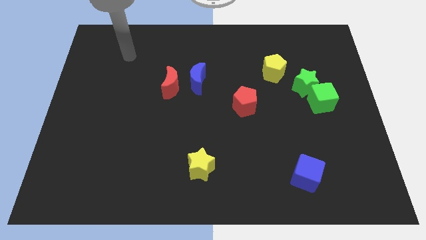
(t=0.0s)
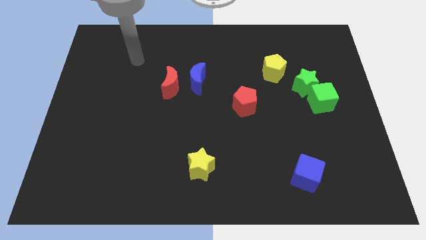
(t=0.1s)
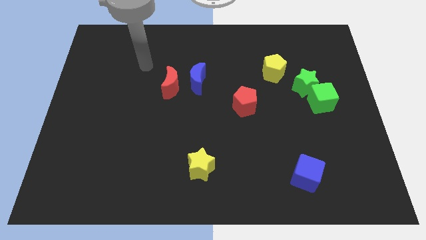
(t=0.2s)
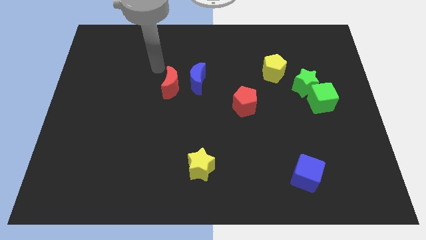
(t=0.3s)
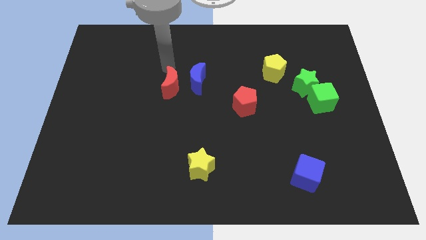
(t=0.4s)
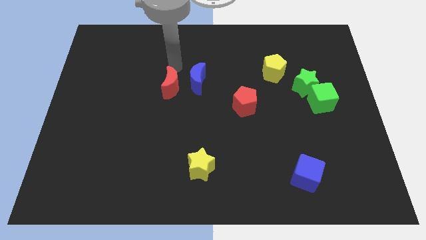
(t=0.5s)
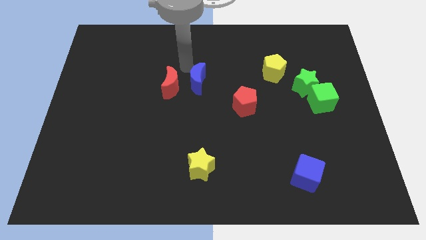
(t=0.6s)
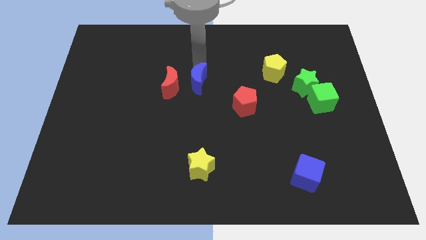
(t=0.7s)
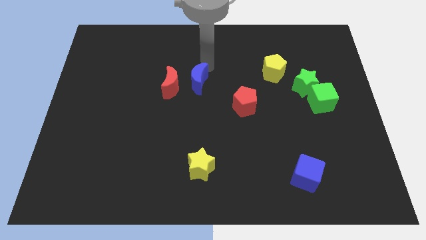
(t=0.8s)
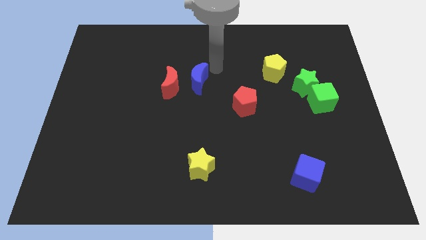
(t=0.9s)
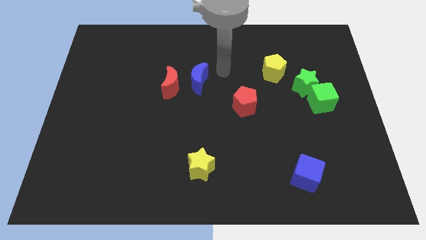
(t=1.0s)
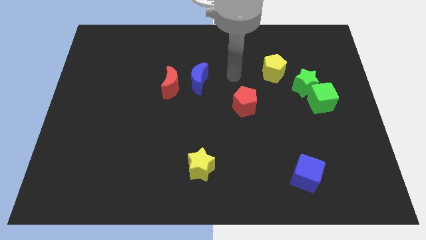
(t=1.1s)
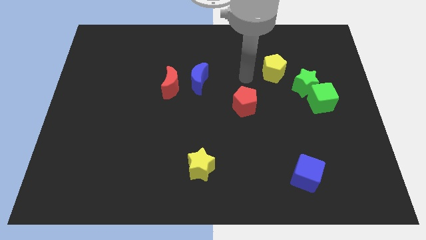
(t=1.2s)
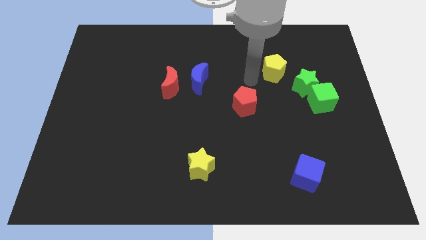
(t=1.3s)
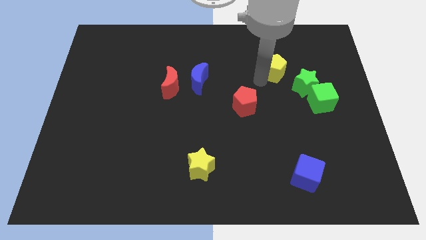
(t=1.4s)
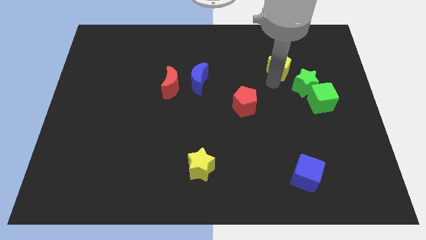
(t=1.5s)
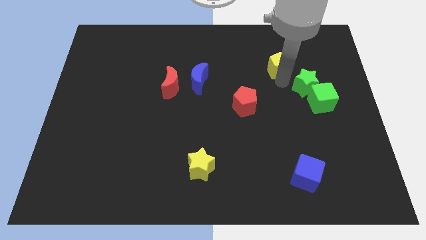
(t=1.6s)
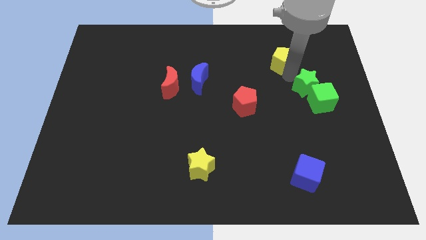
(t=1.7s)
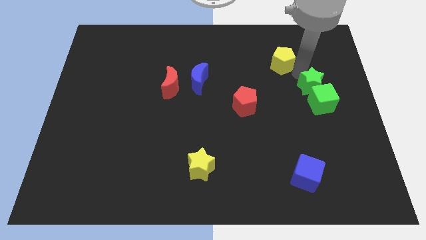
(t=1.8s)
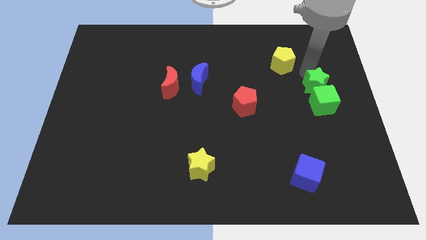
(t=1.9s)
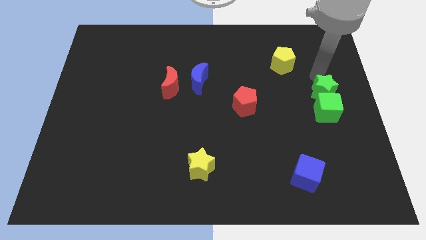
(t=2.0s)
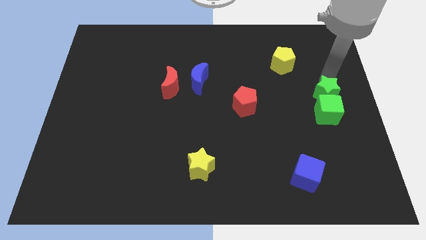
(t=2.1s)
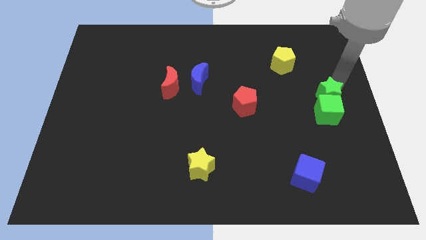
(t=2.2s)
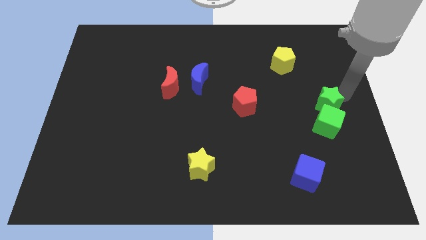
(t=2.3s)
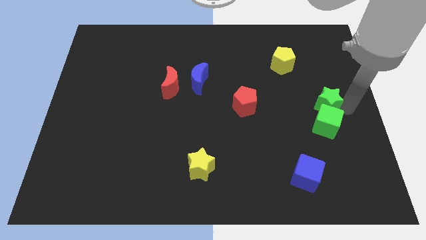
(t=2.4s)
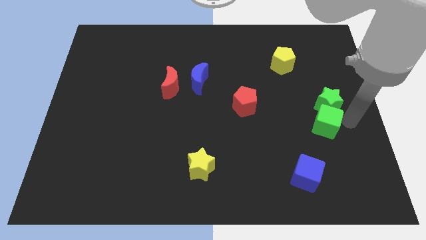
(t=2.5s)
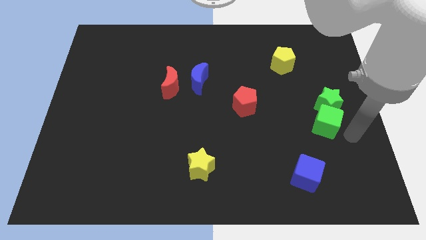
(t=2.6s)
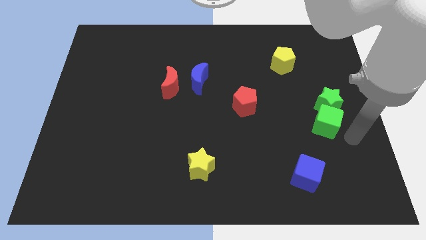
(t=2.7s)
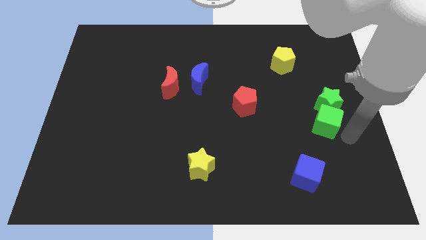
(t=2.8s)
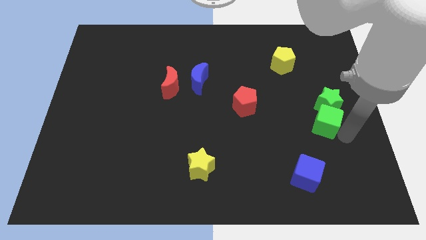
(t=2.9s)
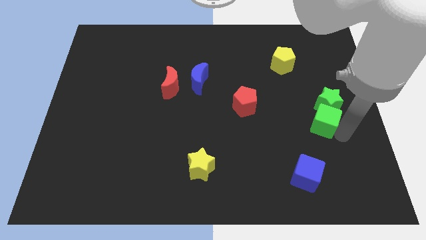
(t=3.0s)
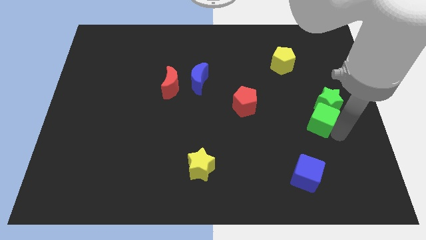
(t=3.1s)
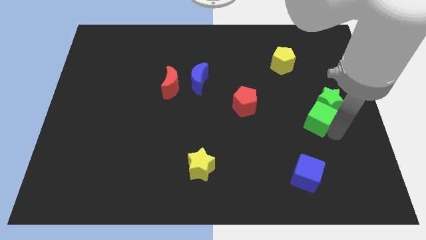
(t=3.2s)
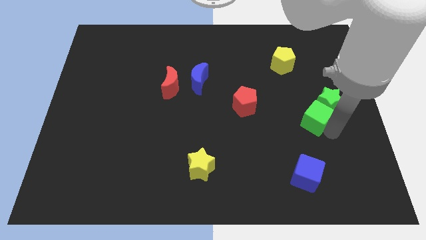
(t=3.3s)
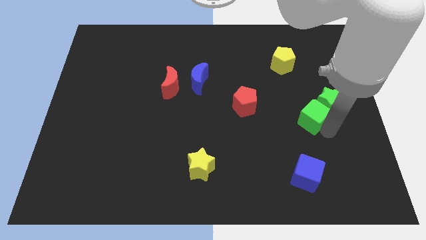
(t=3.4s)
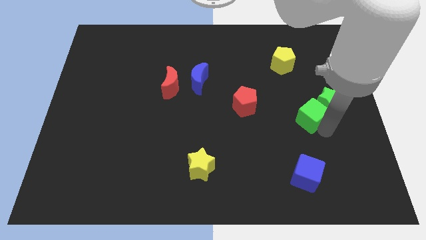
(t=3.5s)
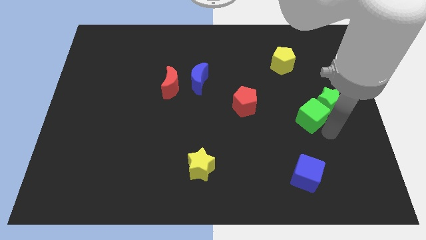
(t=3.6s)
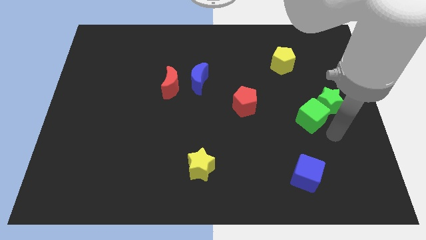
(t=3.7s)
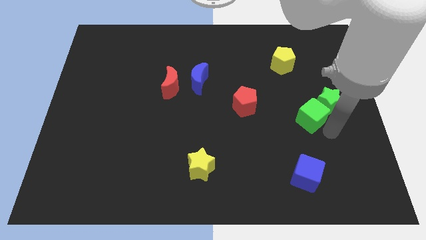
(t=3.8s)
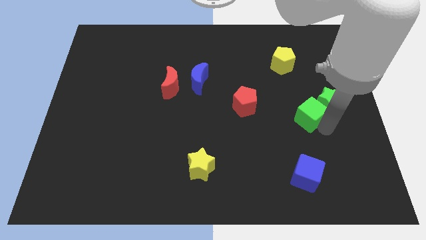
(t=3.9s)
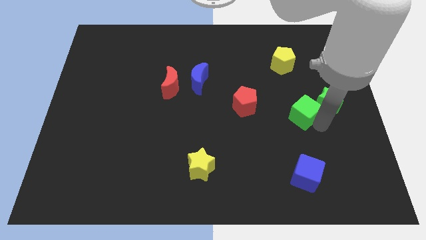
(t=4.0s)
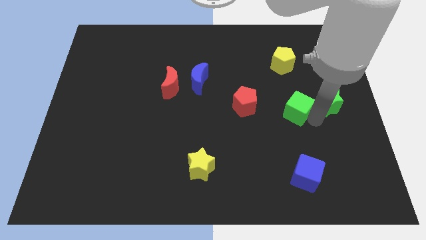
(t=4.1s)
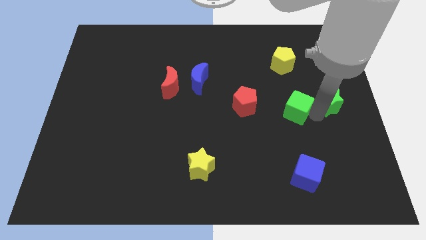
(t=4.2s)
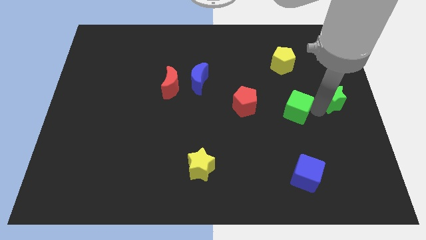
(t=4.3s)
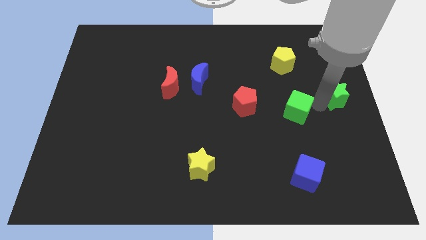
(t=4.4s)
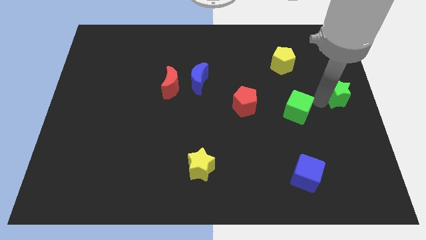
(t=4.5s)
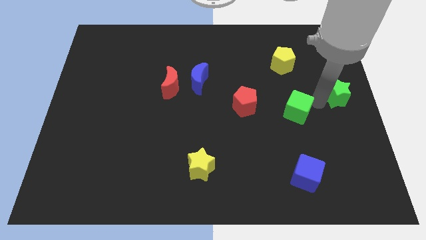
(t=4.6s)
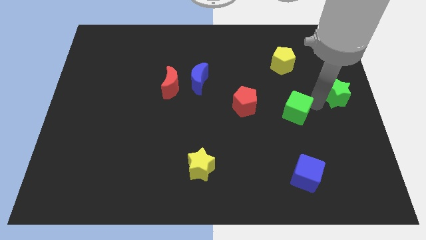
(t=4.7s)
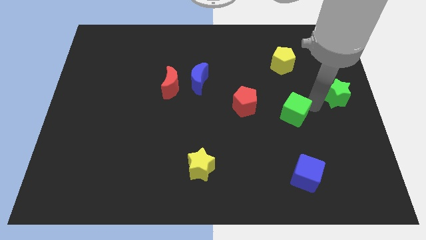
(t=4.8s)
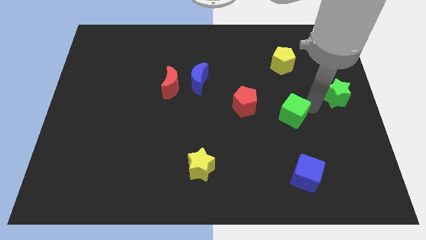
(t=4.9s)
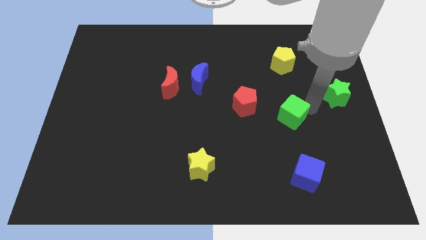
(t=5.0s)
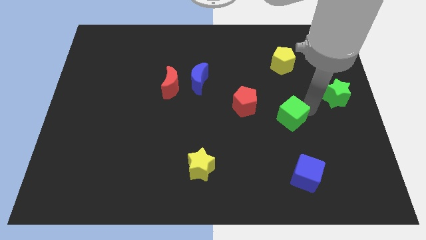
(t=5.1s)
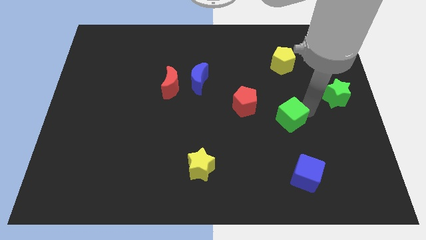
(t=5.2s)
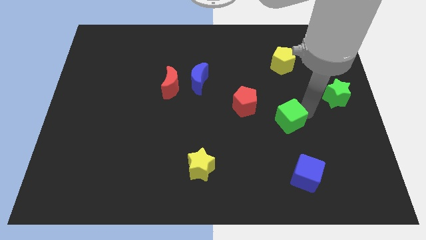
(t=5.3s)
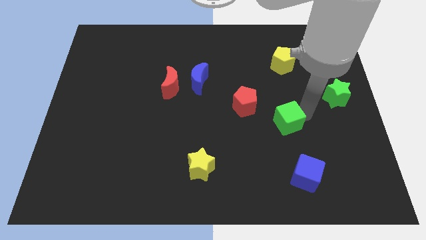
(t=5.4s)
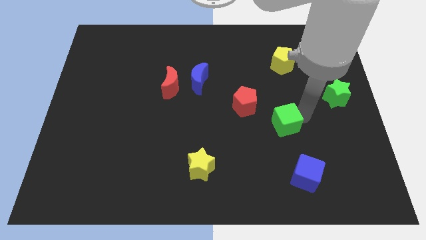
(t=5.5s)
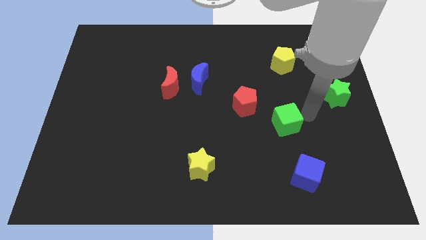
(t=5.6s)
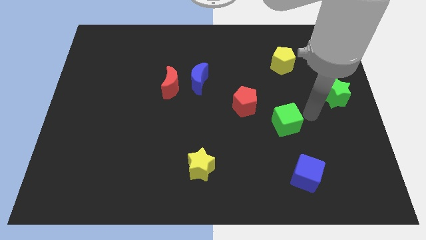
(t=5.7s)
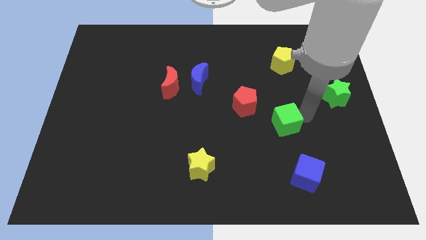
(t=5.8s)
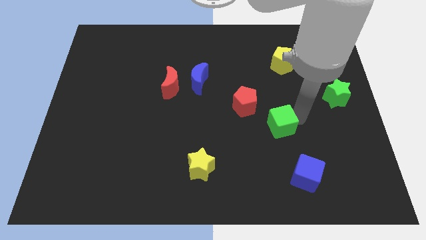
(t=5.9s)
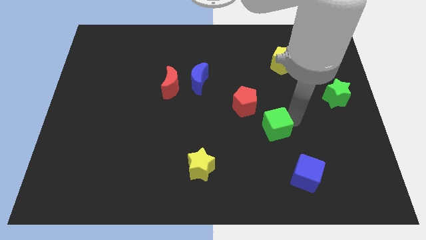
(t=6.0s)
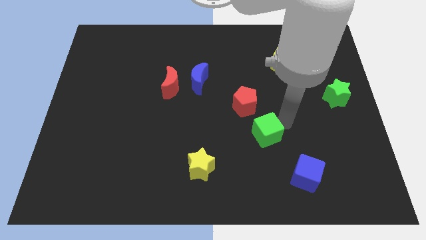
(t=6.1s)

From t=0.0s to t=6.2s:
put the green cube to the bottom of the red pentagon
